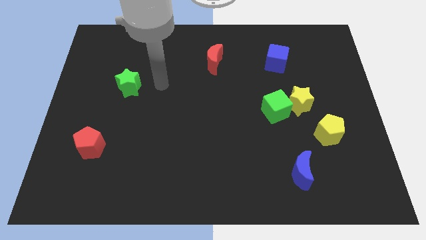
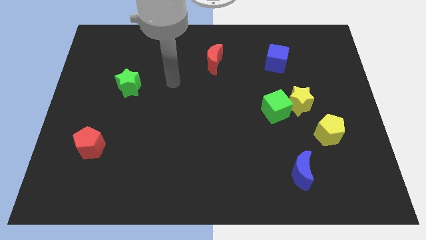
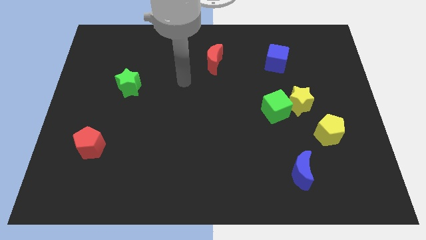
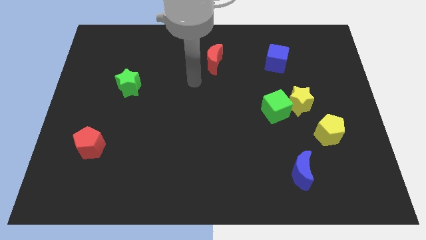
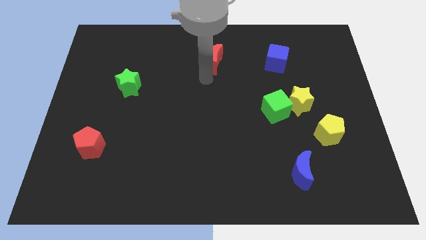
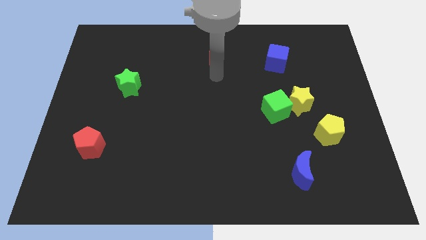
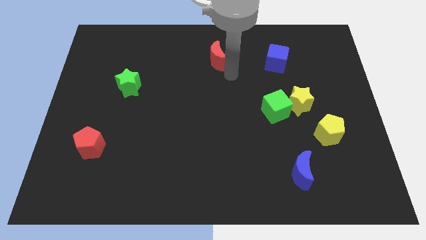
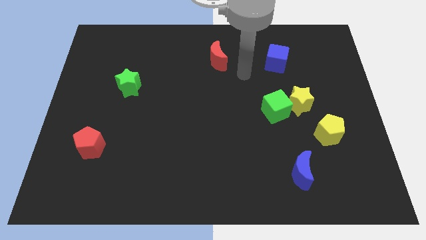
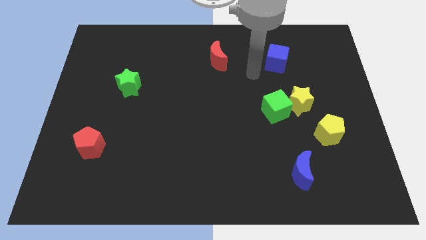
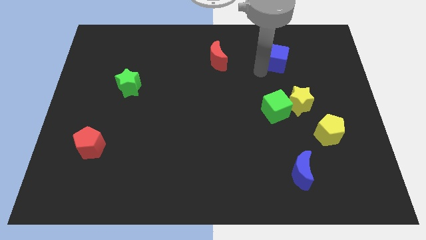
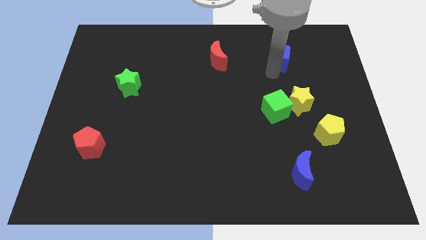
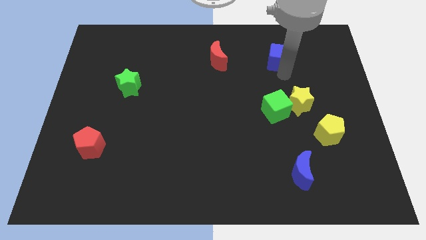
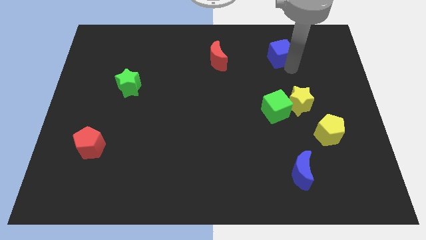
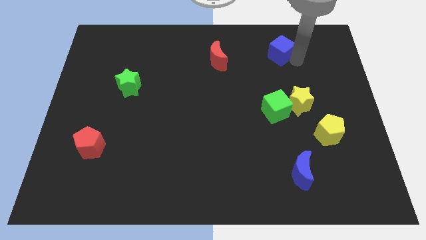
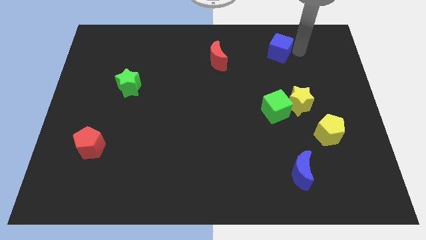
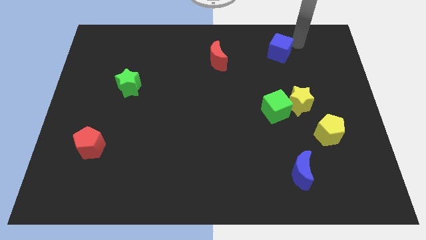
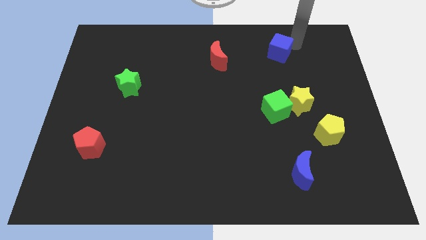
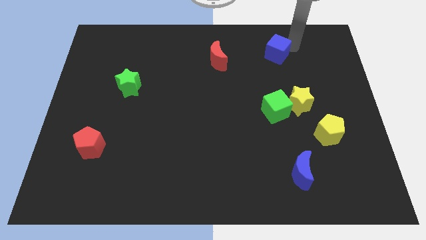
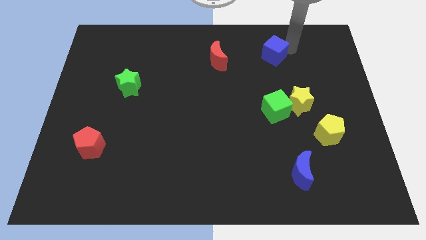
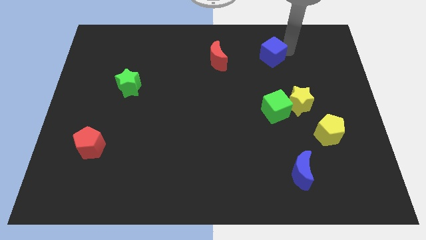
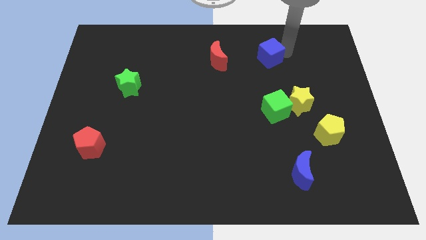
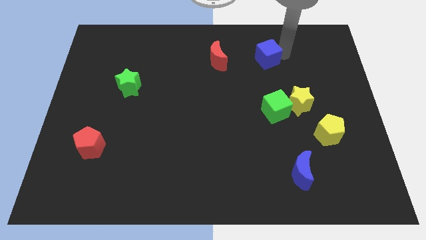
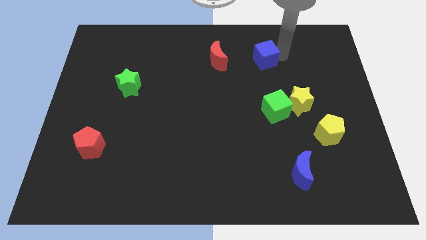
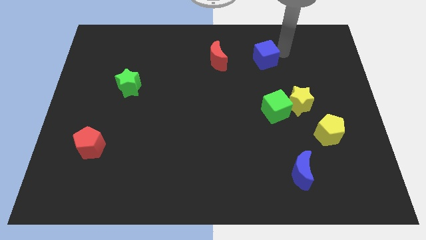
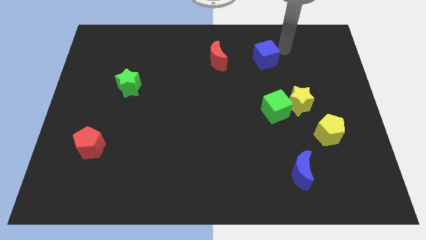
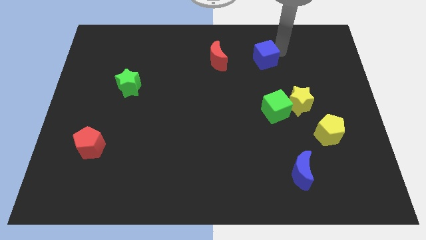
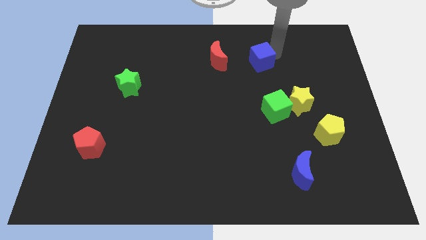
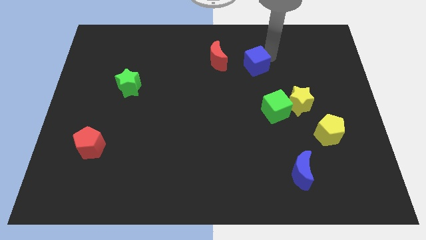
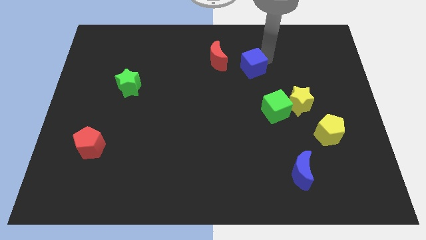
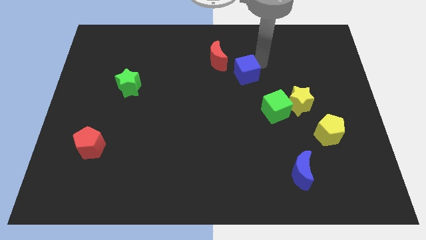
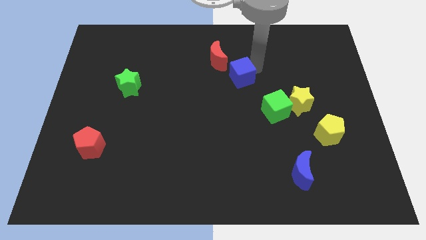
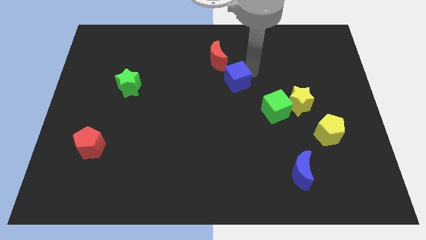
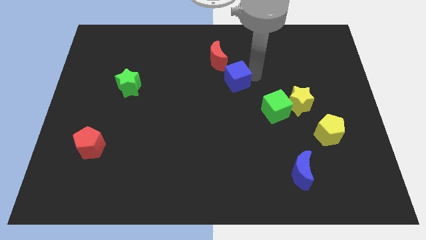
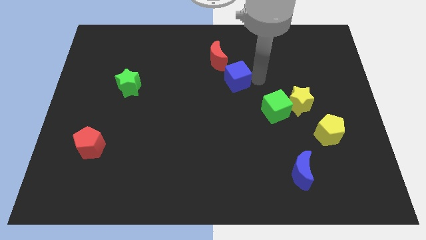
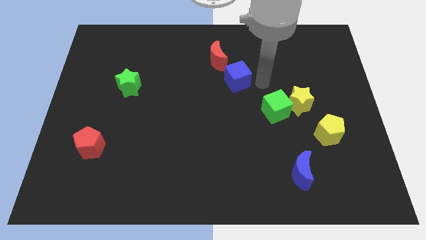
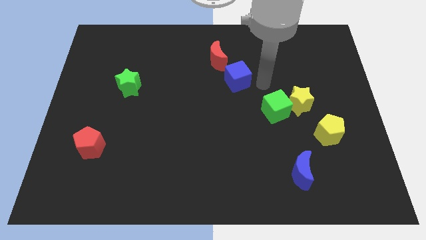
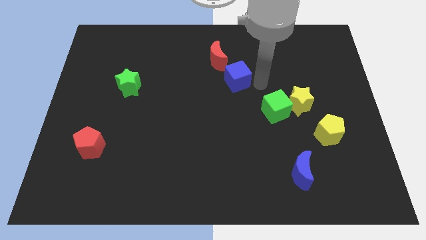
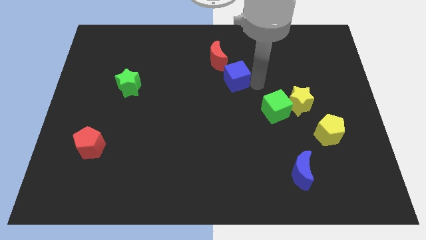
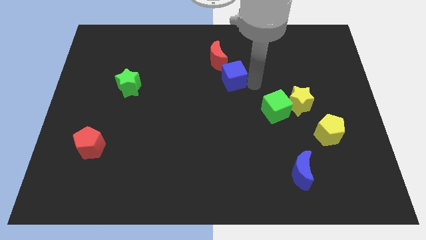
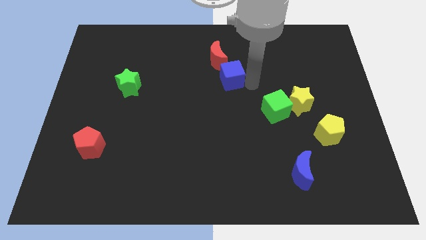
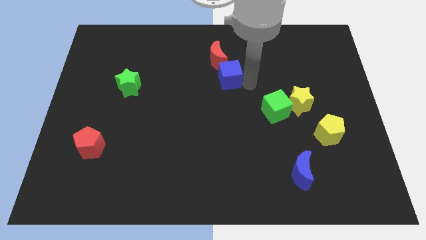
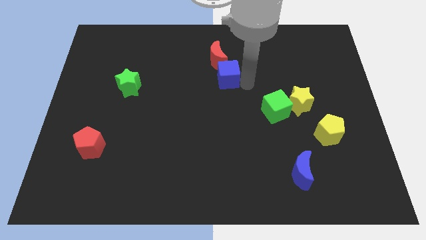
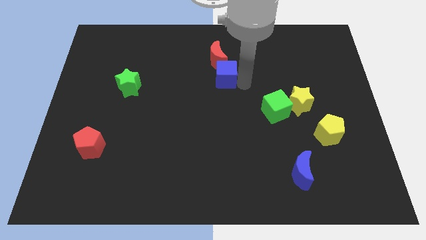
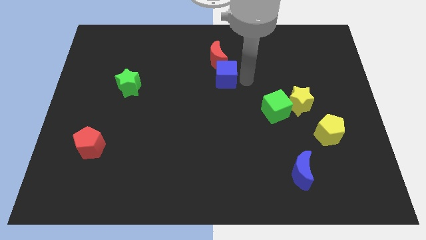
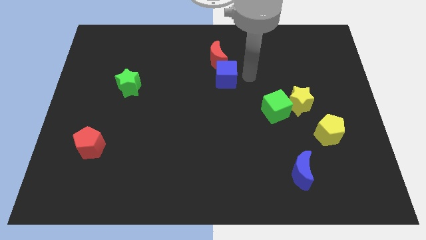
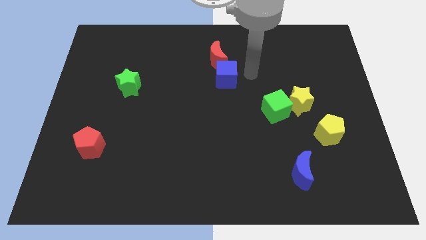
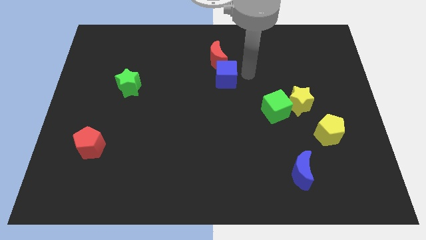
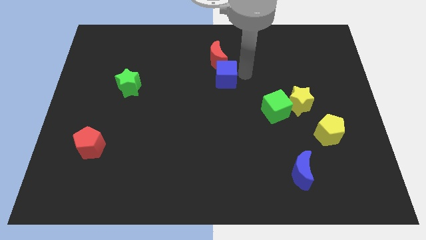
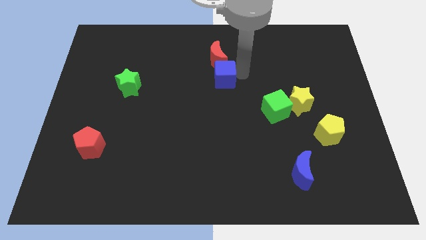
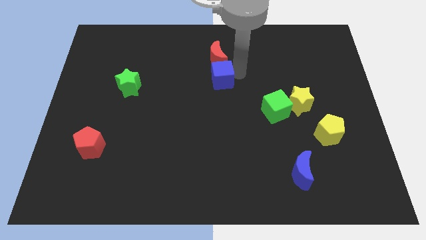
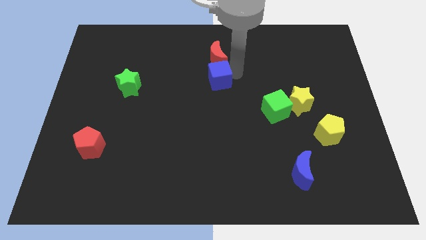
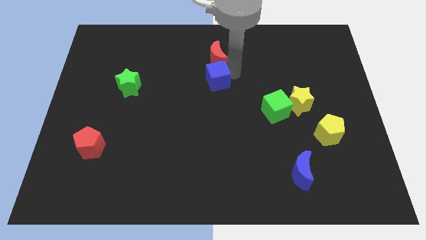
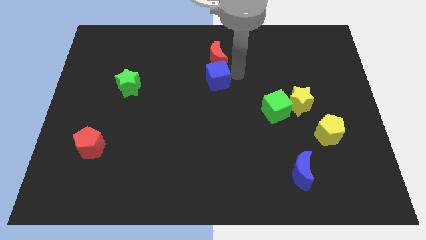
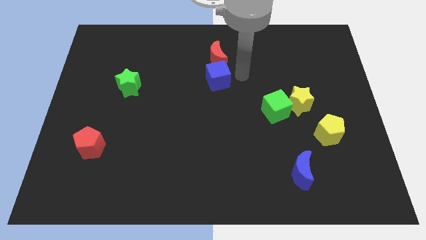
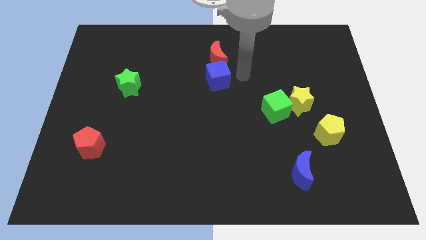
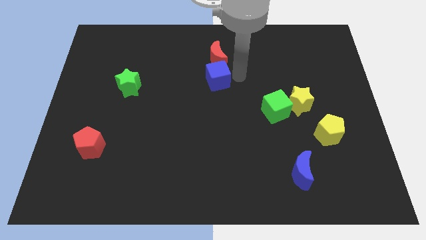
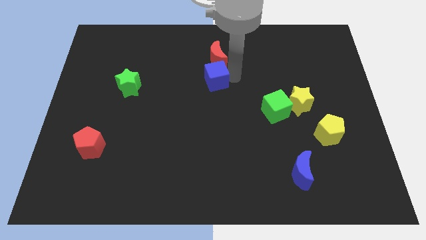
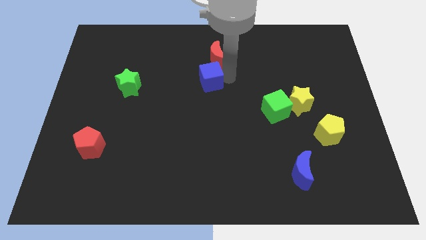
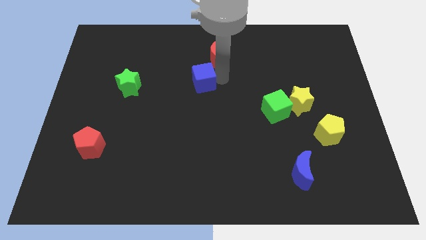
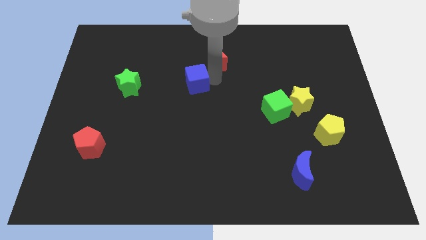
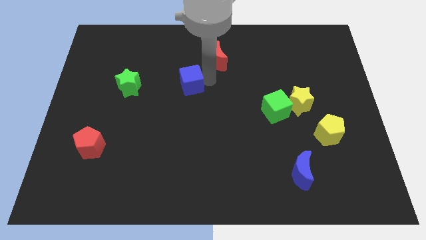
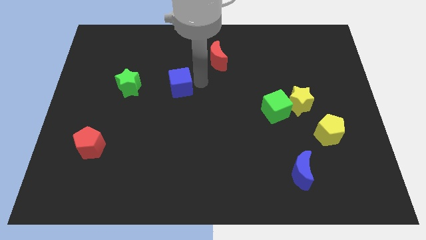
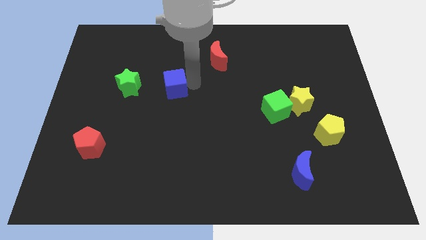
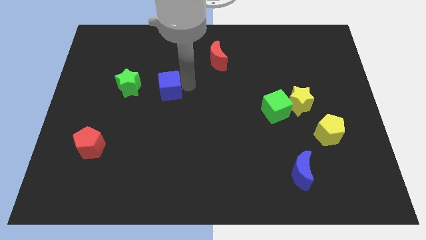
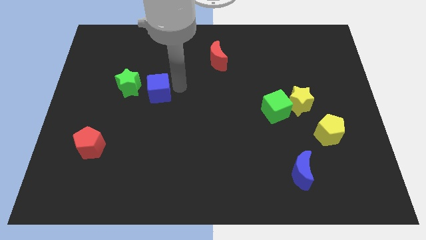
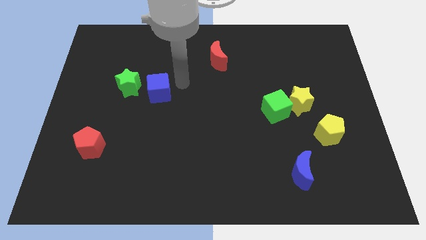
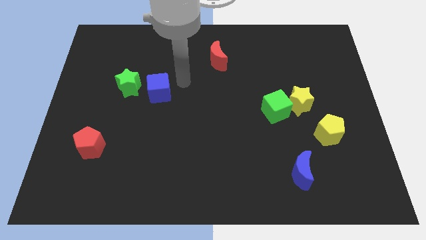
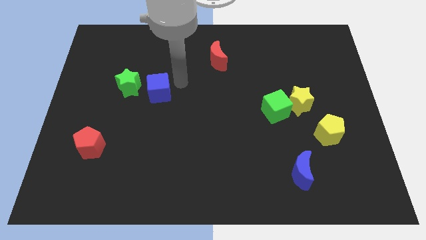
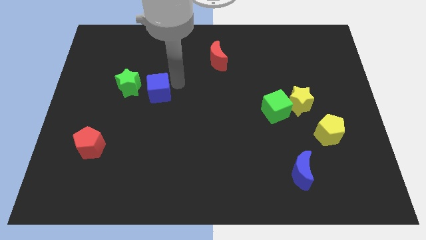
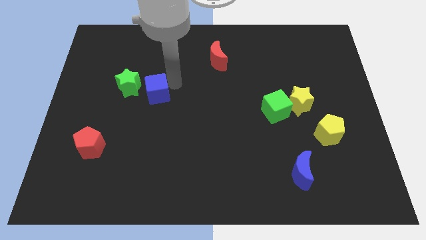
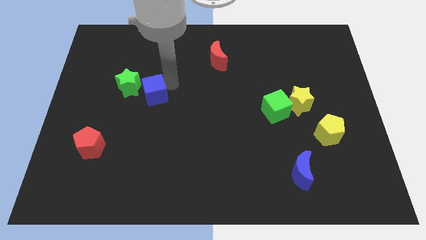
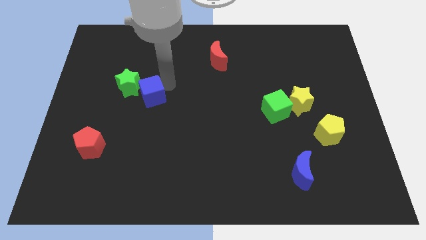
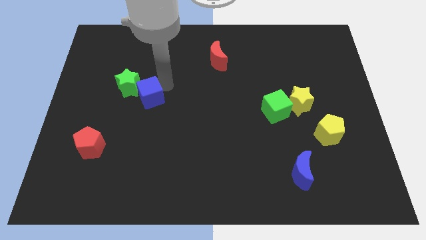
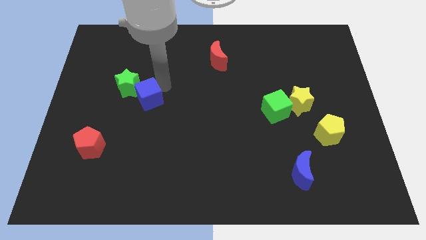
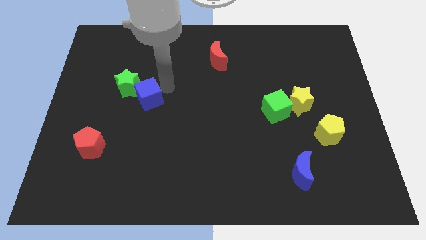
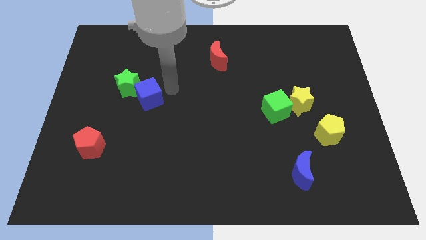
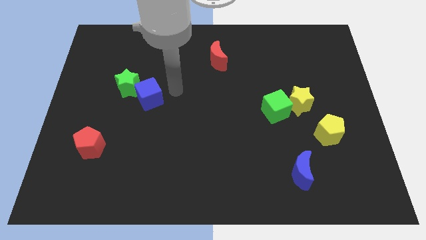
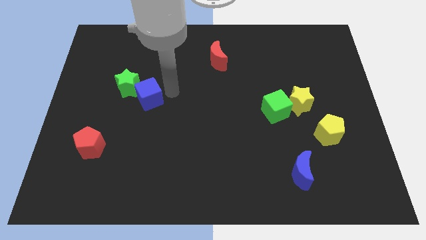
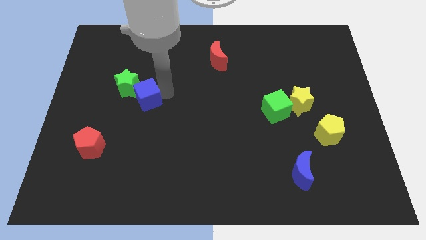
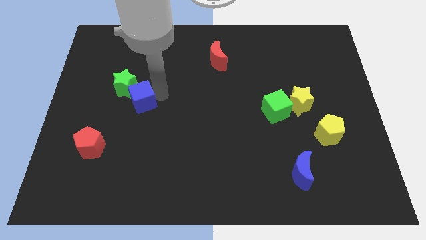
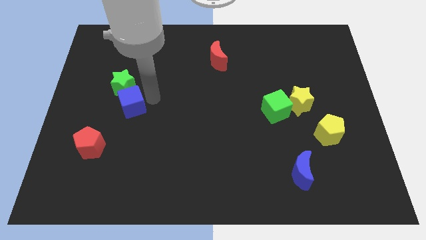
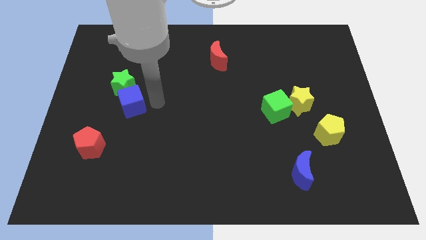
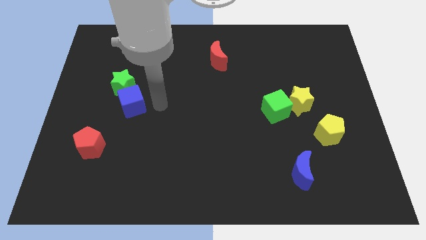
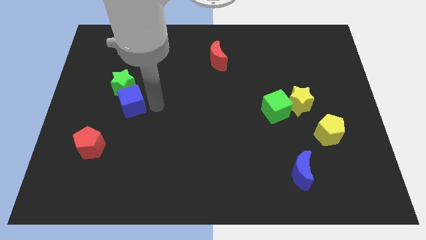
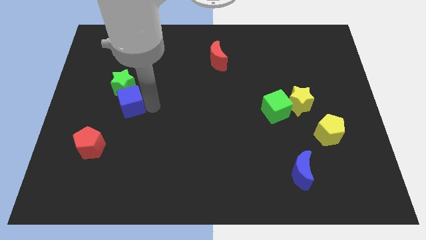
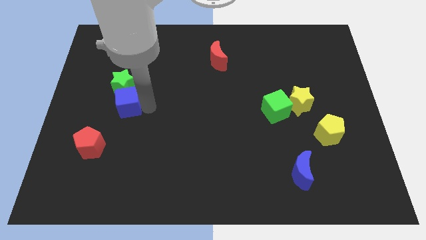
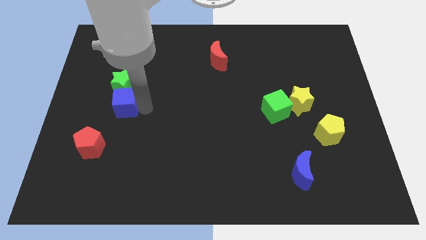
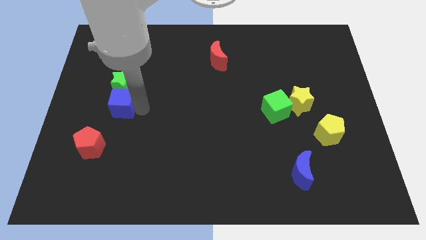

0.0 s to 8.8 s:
push the blue cube to the bottom left of the green star
